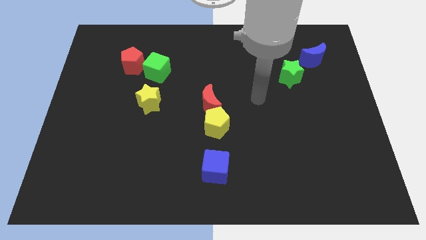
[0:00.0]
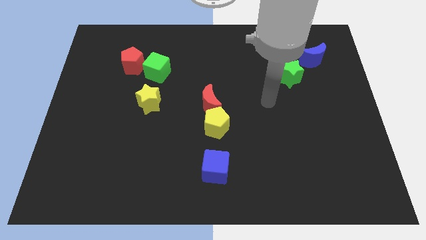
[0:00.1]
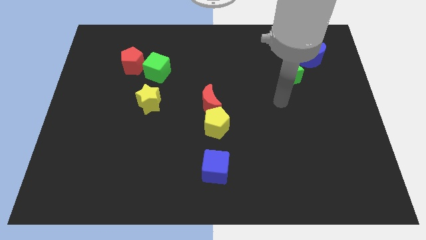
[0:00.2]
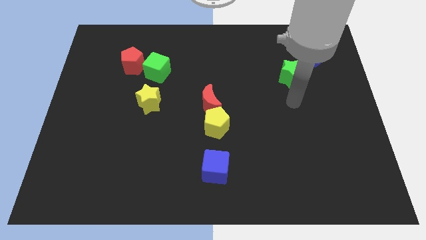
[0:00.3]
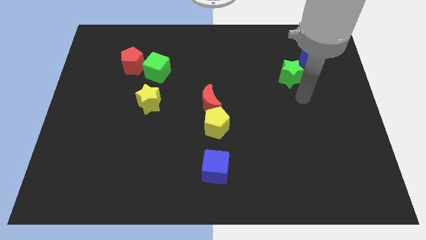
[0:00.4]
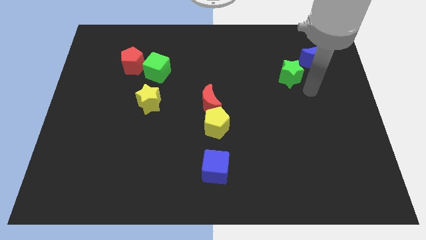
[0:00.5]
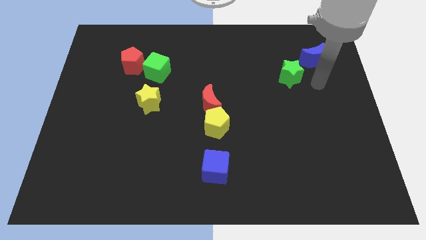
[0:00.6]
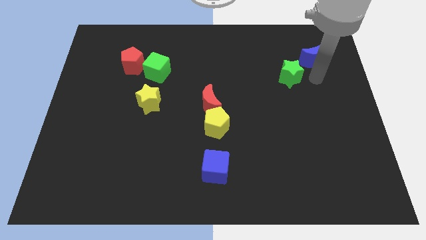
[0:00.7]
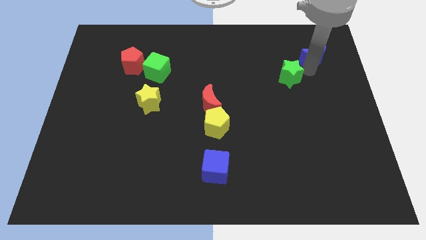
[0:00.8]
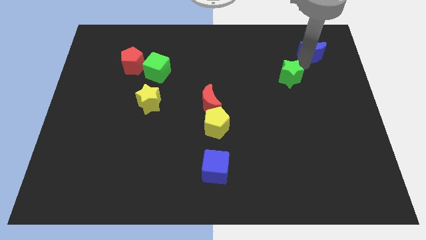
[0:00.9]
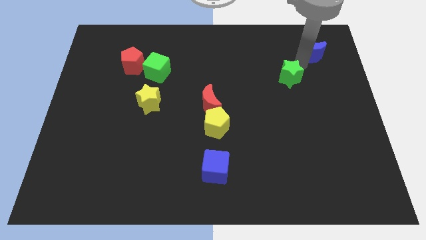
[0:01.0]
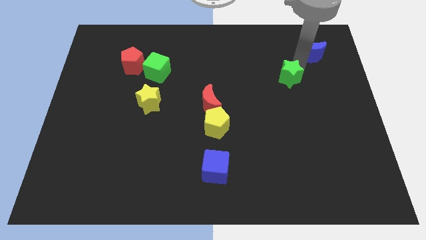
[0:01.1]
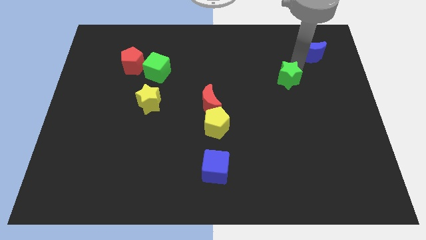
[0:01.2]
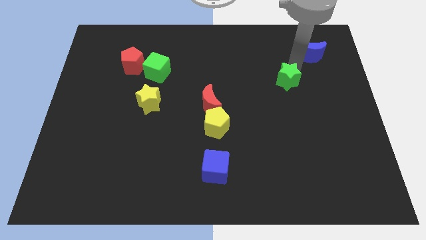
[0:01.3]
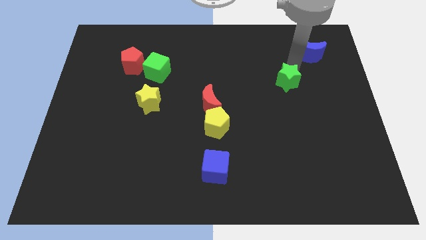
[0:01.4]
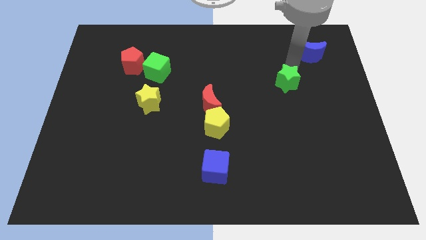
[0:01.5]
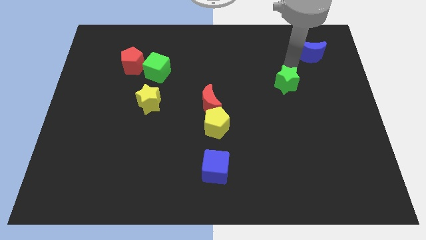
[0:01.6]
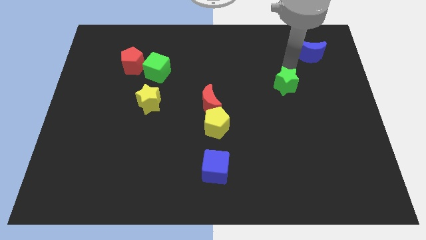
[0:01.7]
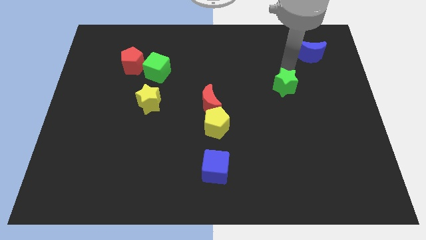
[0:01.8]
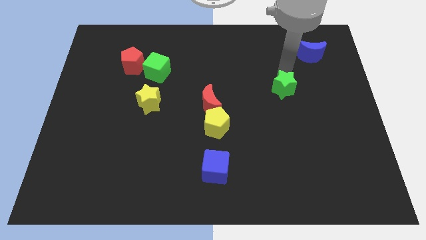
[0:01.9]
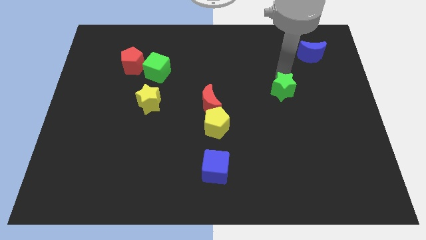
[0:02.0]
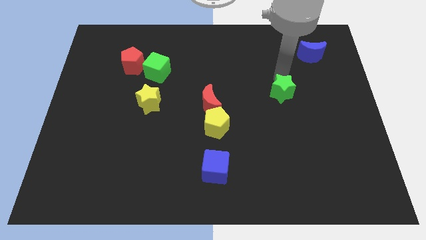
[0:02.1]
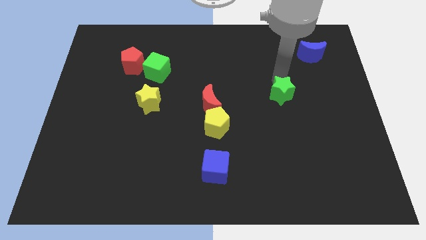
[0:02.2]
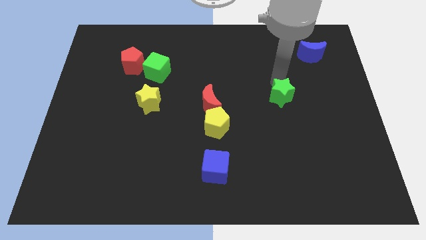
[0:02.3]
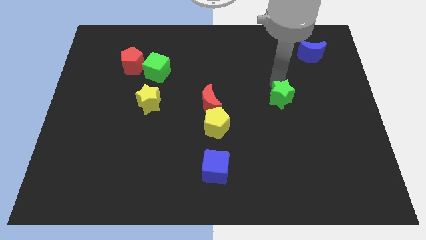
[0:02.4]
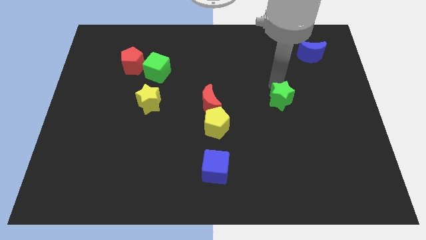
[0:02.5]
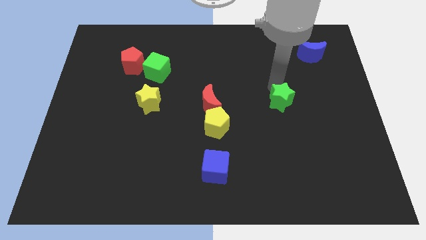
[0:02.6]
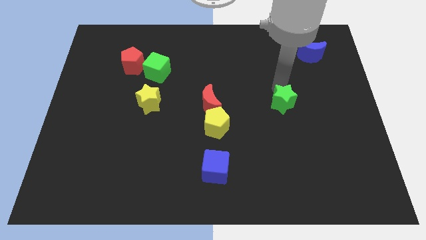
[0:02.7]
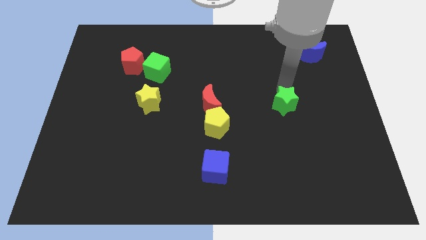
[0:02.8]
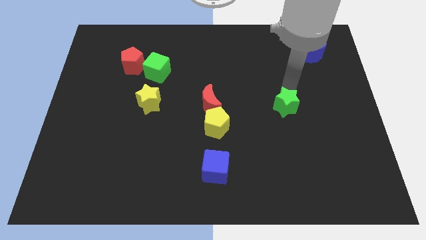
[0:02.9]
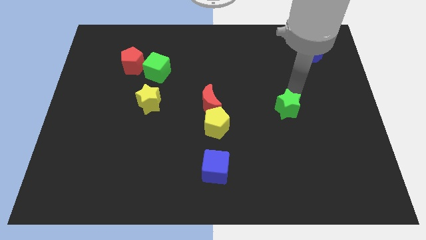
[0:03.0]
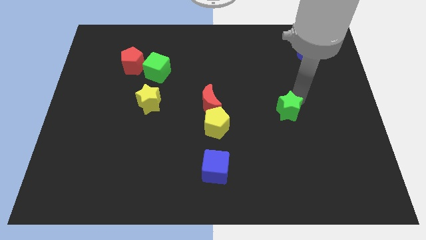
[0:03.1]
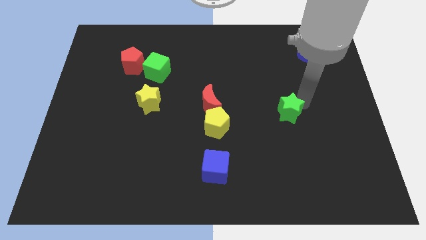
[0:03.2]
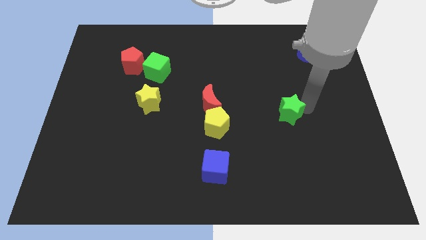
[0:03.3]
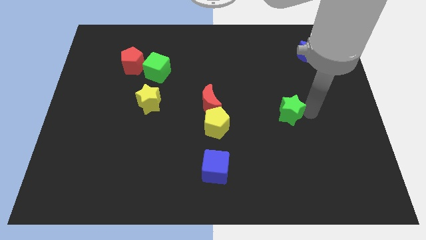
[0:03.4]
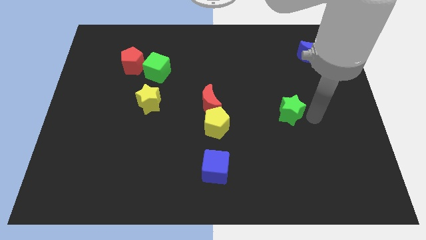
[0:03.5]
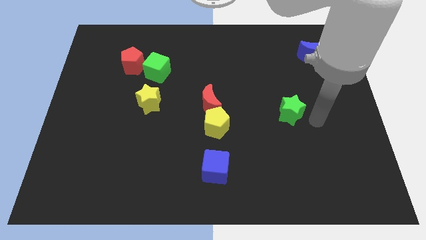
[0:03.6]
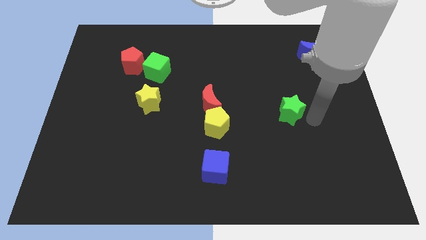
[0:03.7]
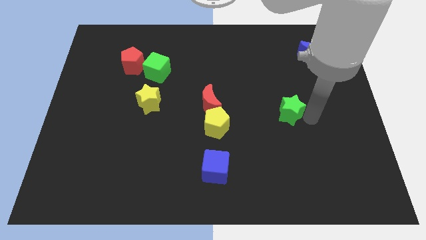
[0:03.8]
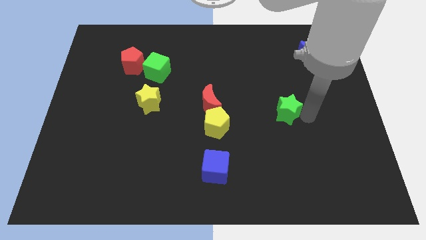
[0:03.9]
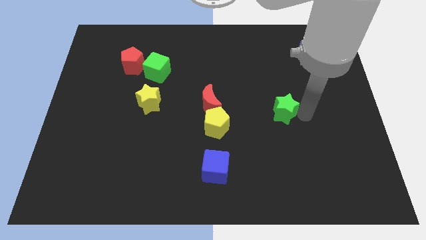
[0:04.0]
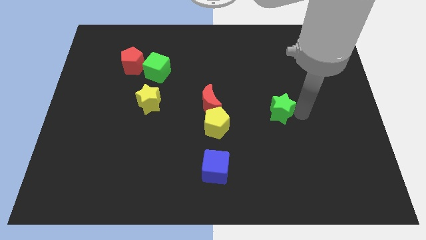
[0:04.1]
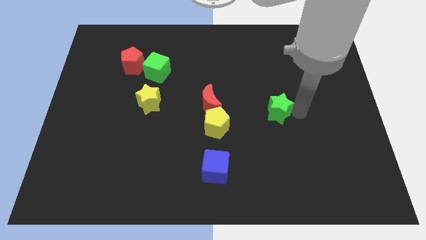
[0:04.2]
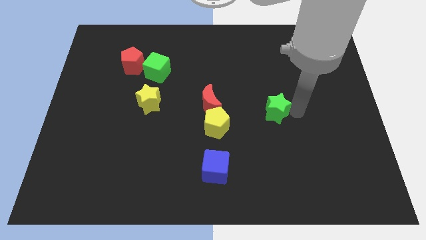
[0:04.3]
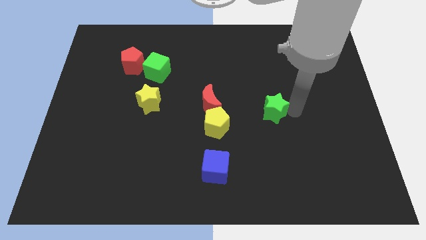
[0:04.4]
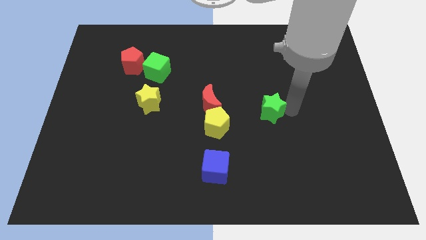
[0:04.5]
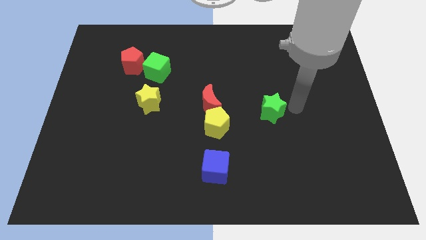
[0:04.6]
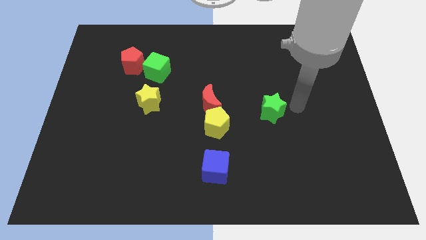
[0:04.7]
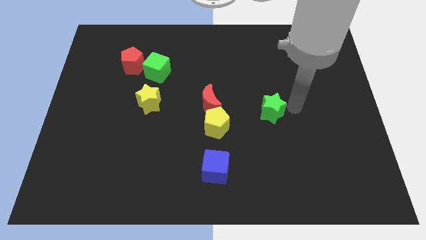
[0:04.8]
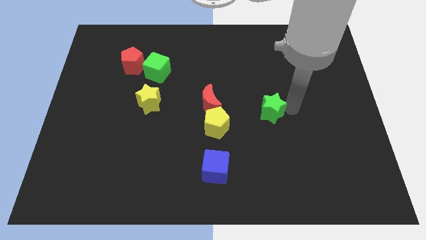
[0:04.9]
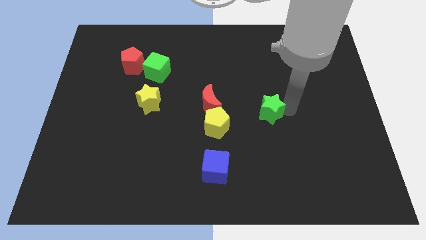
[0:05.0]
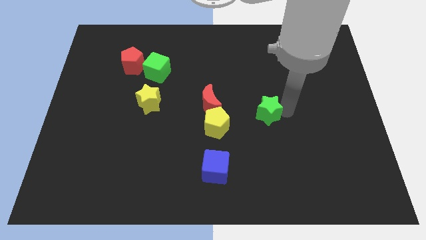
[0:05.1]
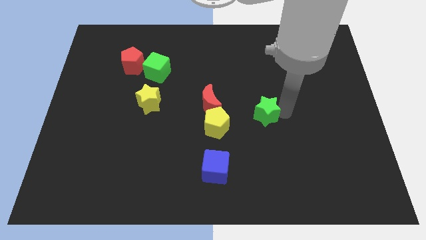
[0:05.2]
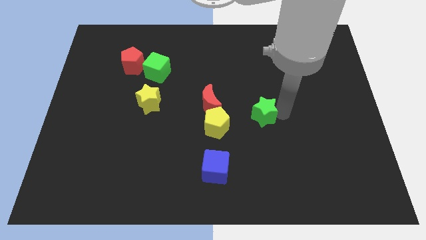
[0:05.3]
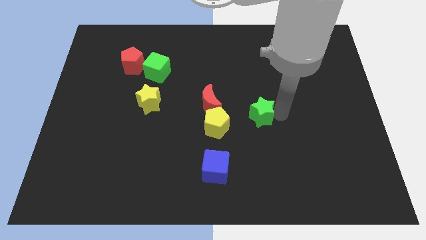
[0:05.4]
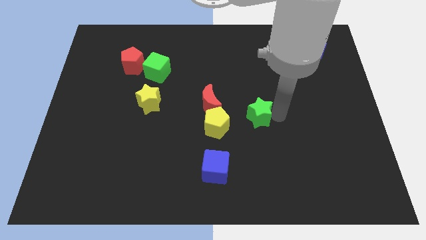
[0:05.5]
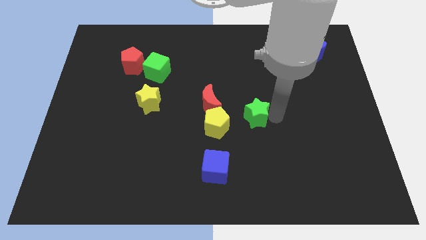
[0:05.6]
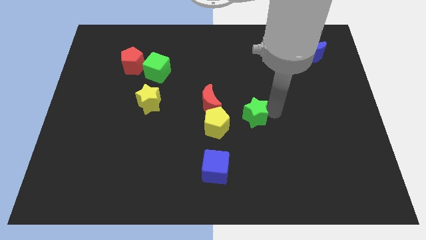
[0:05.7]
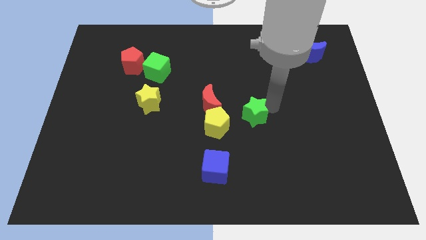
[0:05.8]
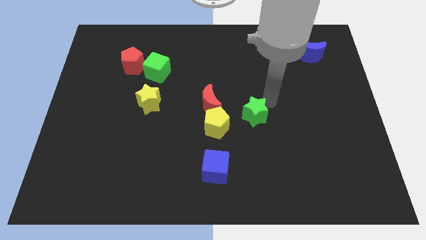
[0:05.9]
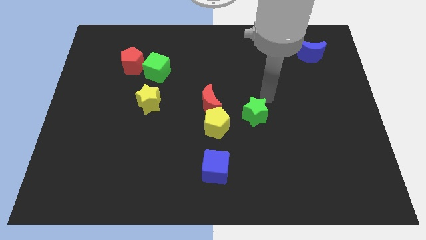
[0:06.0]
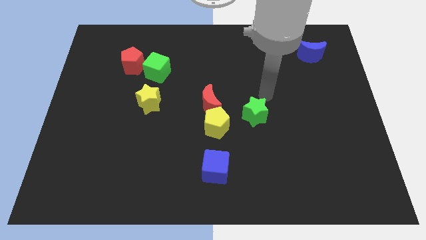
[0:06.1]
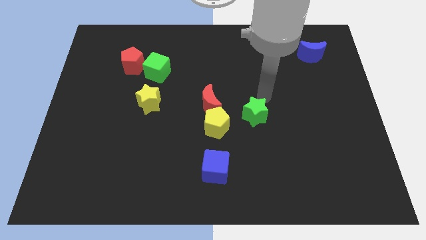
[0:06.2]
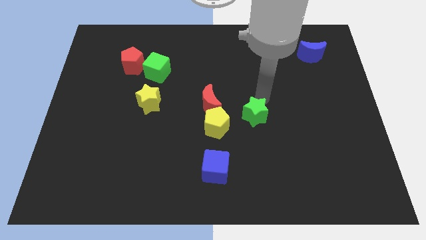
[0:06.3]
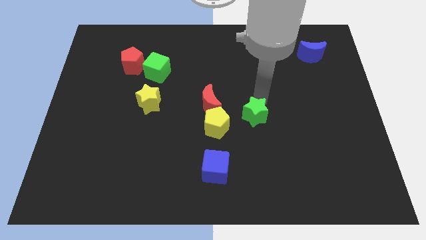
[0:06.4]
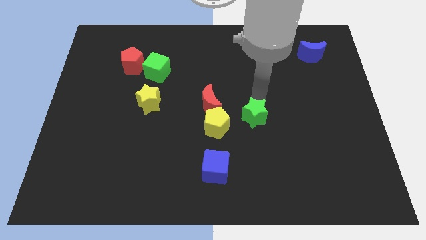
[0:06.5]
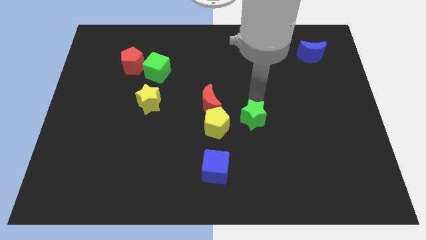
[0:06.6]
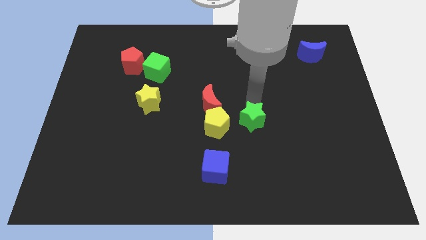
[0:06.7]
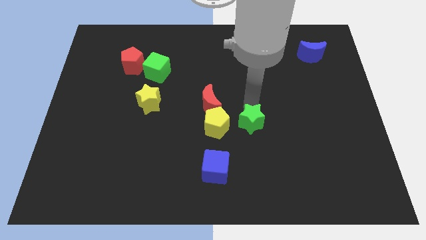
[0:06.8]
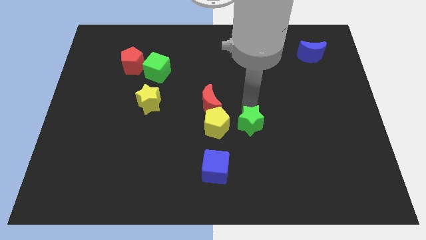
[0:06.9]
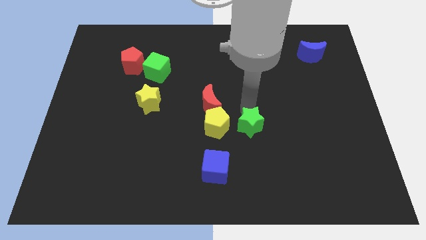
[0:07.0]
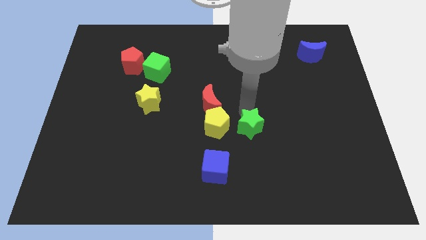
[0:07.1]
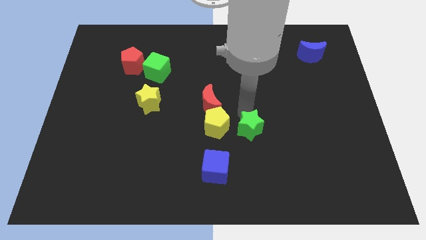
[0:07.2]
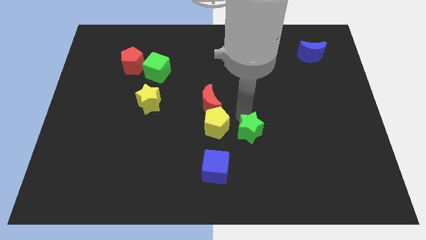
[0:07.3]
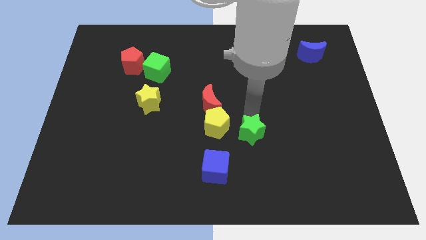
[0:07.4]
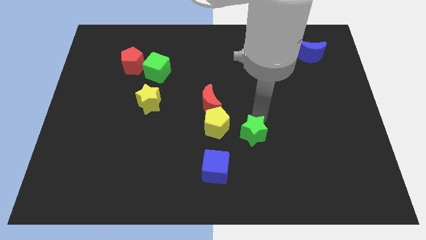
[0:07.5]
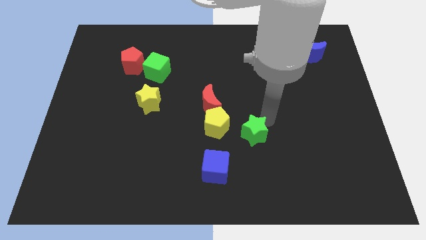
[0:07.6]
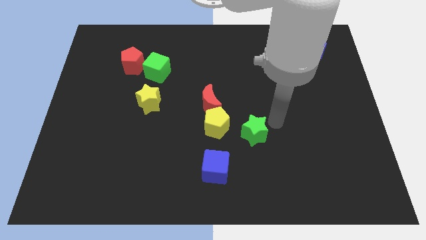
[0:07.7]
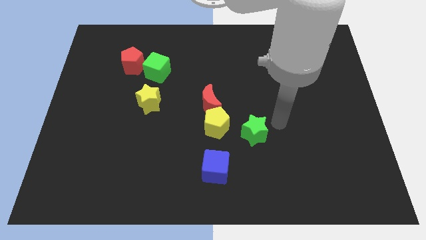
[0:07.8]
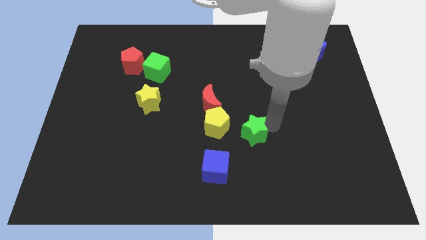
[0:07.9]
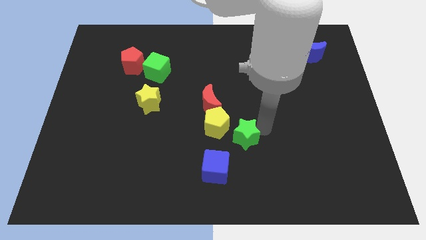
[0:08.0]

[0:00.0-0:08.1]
move the green star diagonally downwards and left
